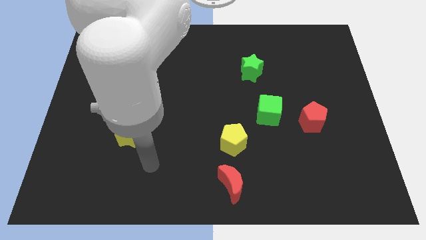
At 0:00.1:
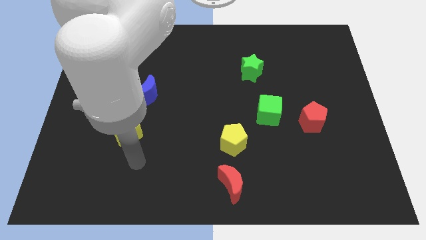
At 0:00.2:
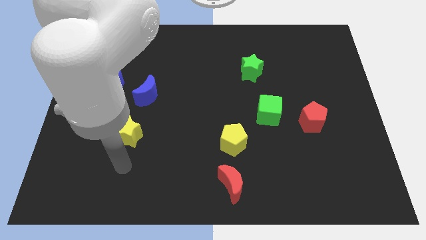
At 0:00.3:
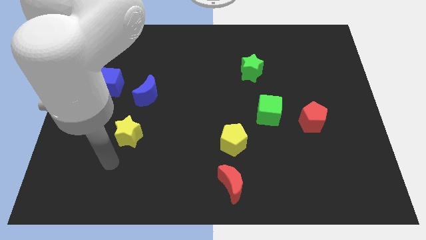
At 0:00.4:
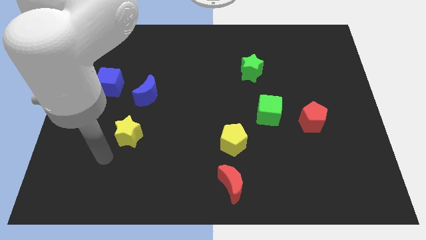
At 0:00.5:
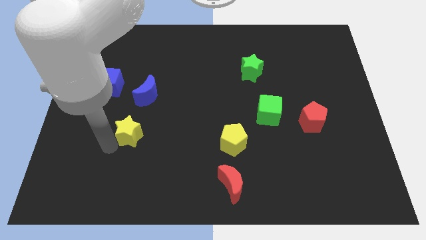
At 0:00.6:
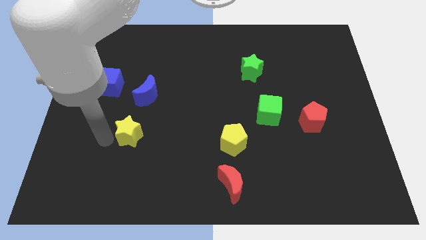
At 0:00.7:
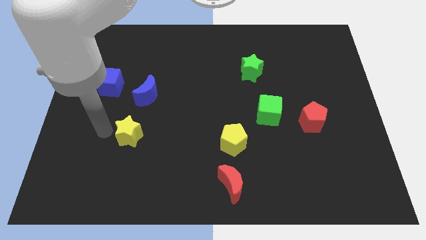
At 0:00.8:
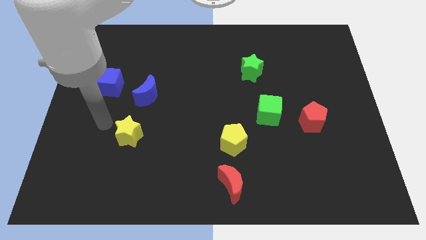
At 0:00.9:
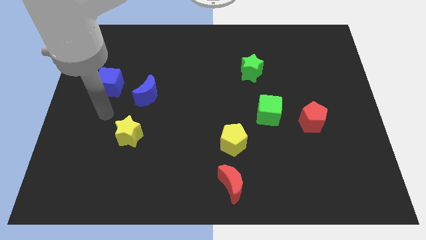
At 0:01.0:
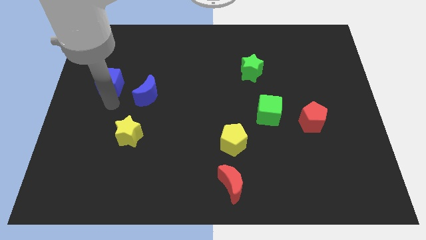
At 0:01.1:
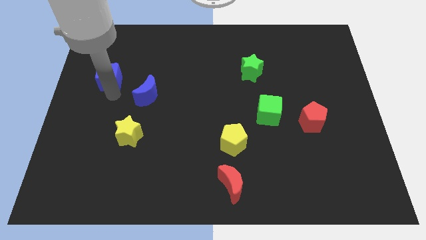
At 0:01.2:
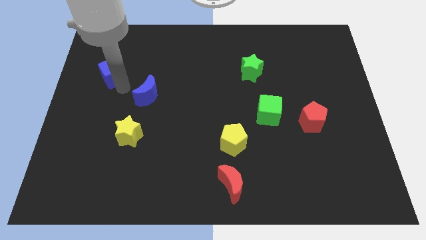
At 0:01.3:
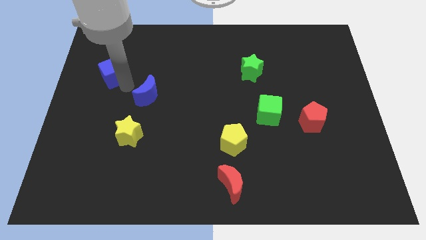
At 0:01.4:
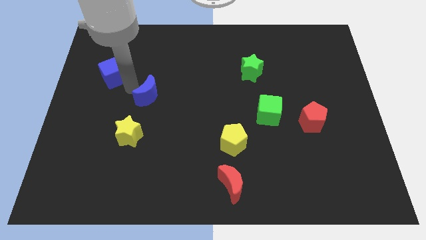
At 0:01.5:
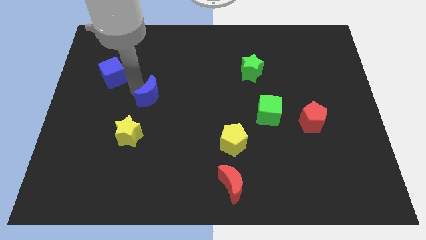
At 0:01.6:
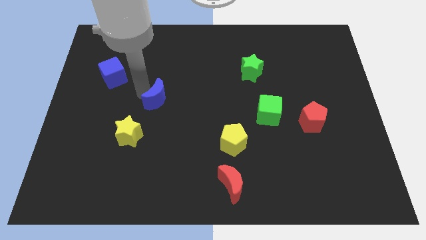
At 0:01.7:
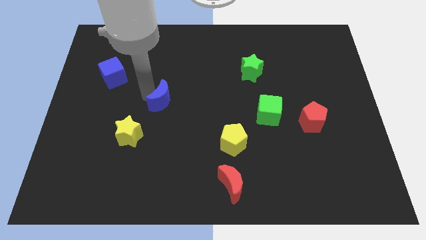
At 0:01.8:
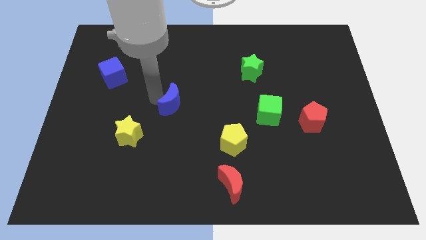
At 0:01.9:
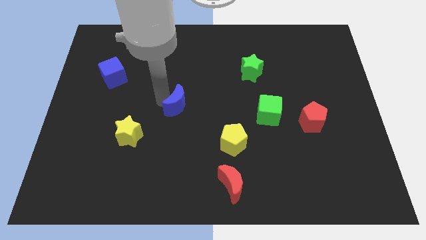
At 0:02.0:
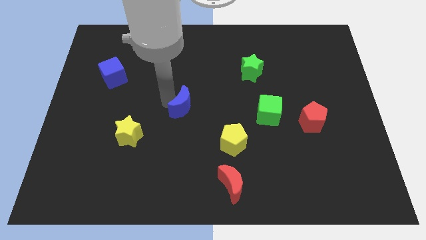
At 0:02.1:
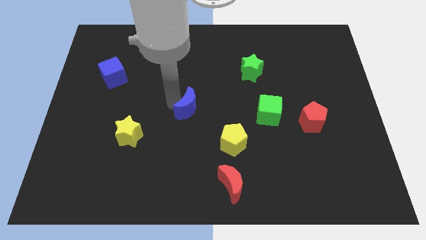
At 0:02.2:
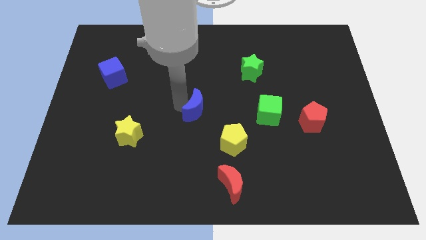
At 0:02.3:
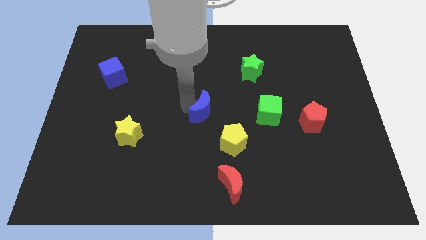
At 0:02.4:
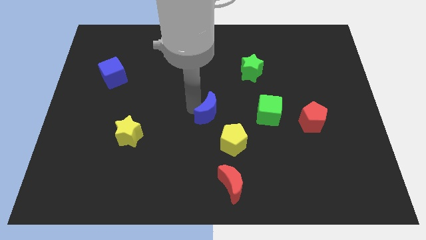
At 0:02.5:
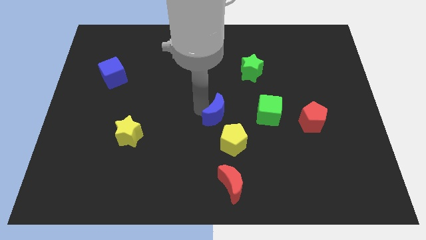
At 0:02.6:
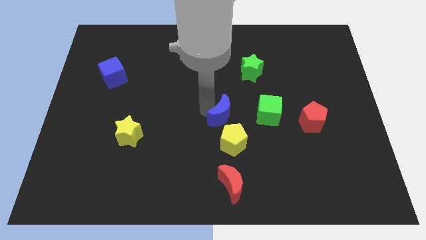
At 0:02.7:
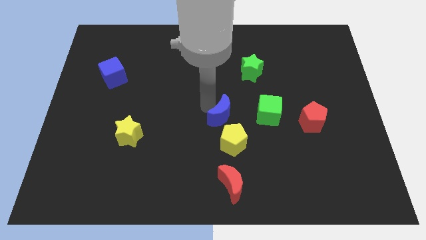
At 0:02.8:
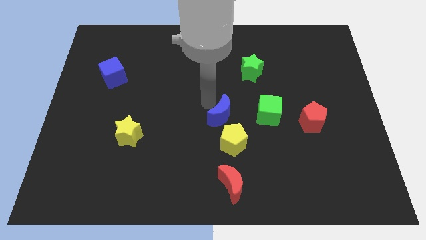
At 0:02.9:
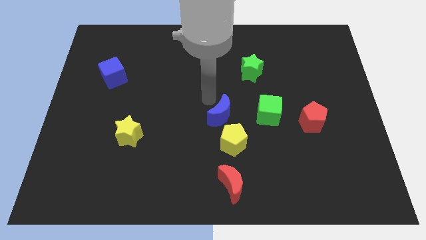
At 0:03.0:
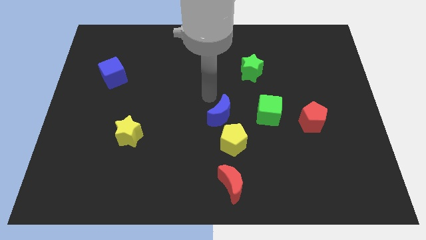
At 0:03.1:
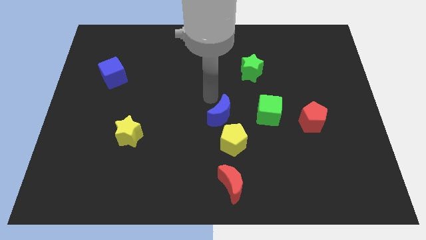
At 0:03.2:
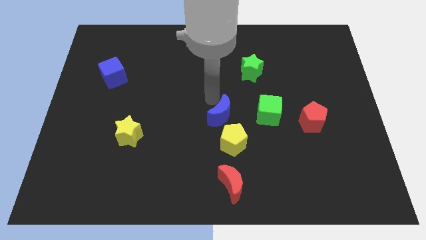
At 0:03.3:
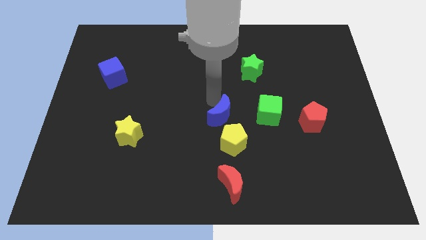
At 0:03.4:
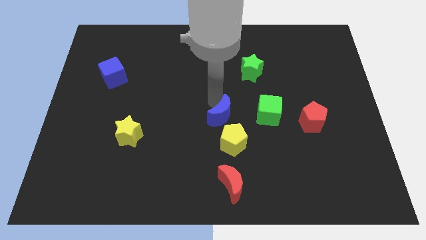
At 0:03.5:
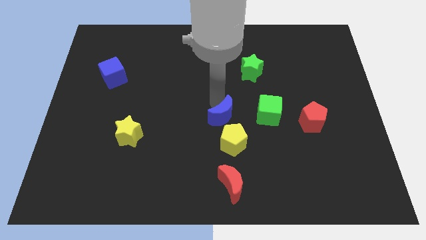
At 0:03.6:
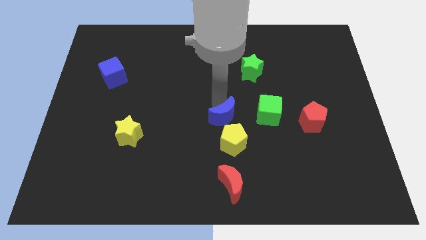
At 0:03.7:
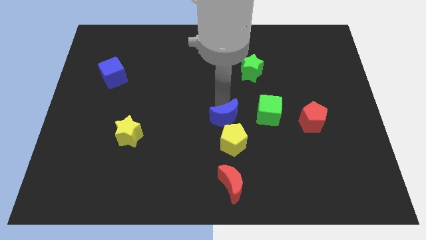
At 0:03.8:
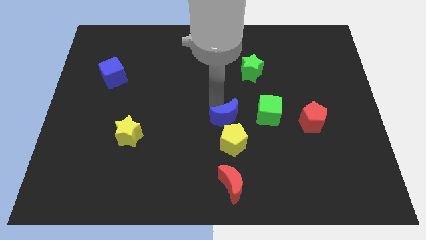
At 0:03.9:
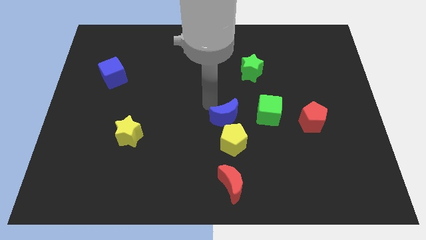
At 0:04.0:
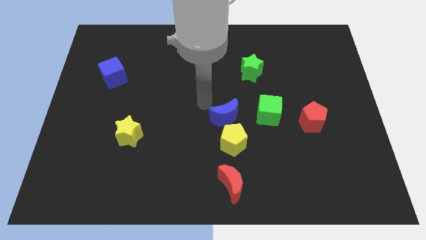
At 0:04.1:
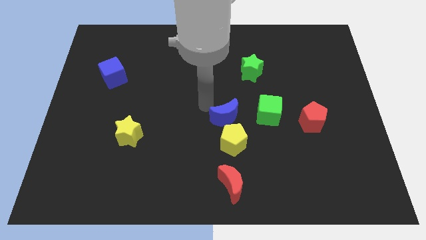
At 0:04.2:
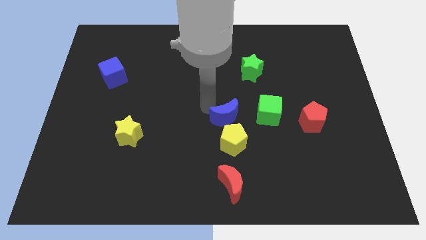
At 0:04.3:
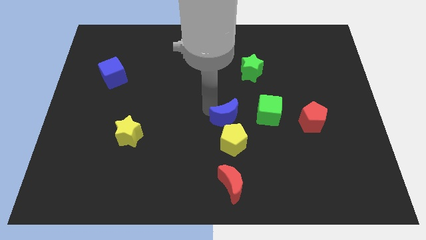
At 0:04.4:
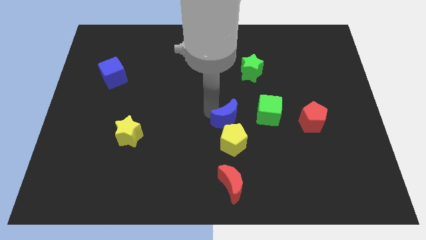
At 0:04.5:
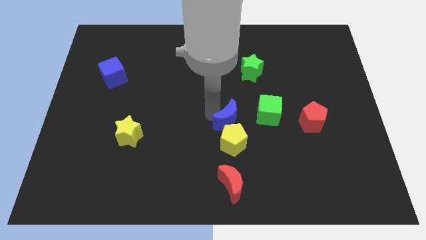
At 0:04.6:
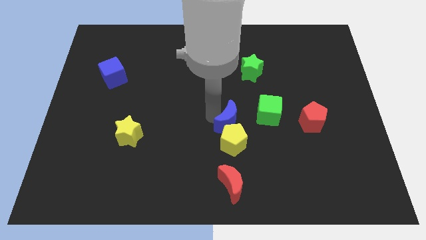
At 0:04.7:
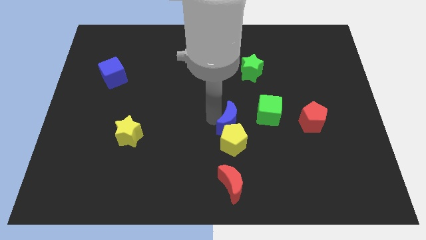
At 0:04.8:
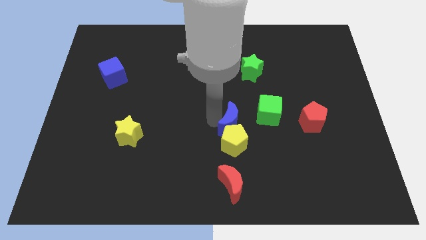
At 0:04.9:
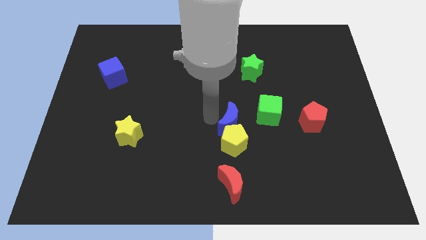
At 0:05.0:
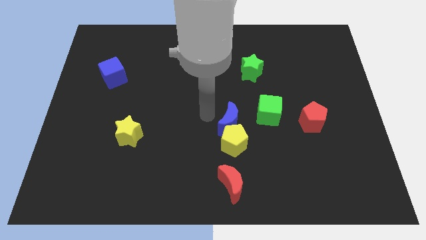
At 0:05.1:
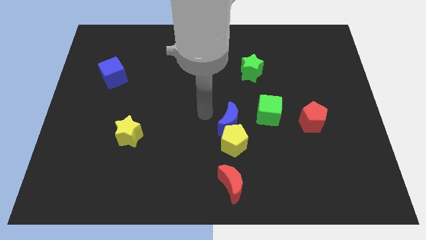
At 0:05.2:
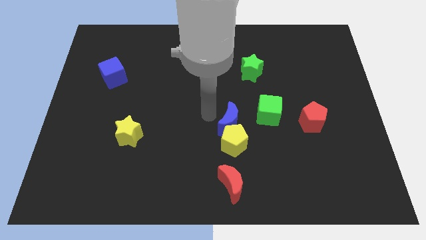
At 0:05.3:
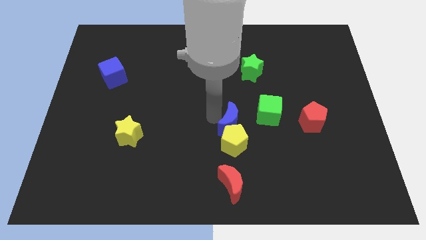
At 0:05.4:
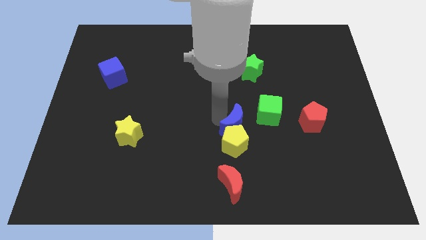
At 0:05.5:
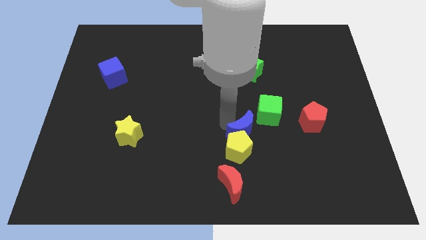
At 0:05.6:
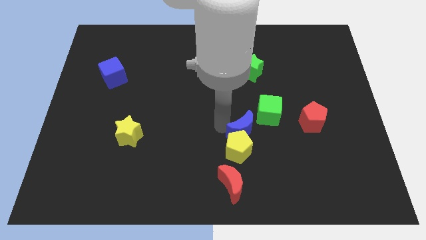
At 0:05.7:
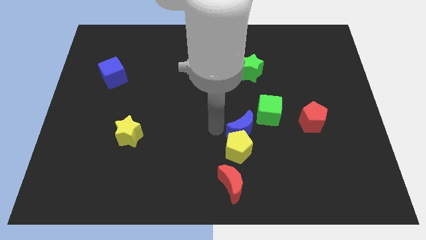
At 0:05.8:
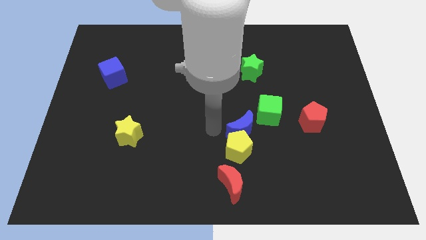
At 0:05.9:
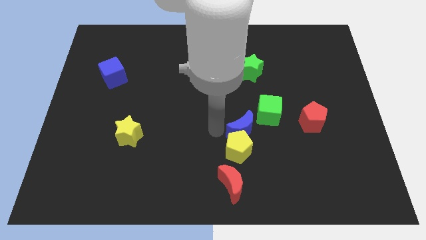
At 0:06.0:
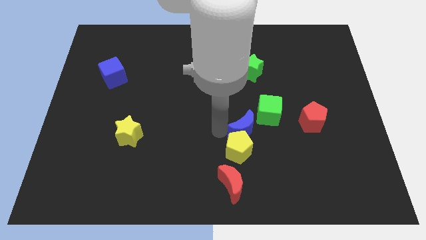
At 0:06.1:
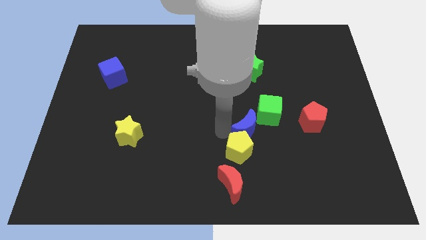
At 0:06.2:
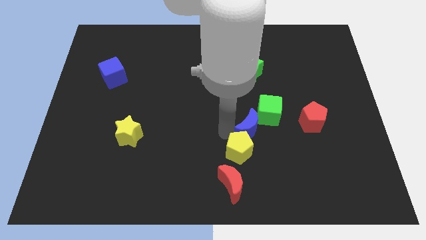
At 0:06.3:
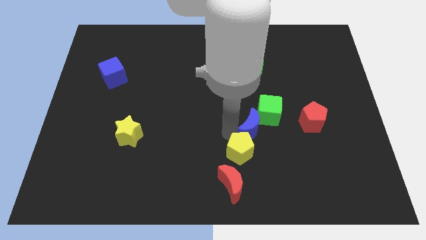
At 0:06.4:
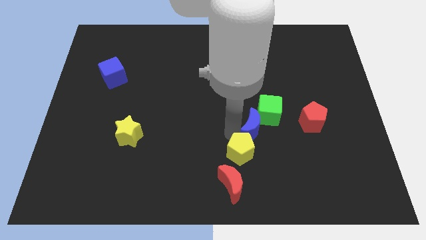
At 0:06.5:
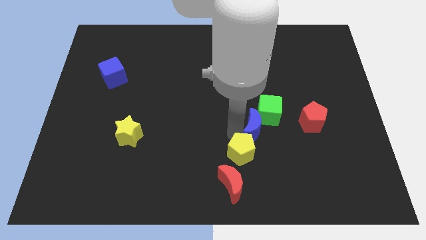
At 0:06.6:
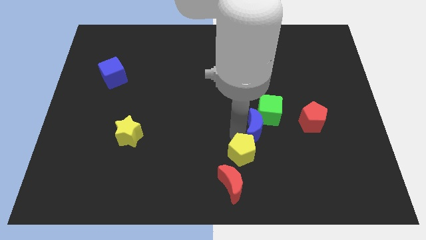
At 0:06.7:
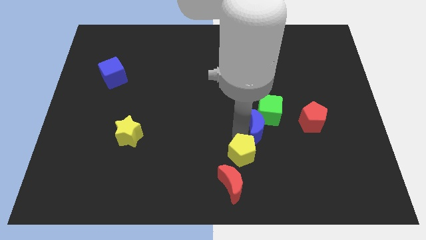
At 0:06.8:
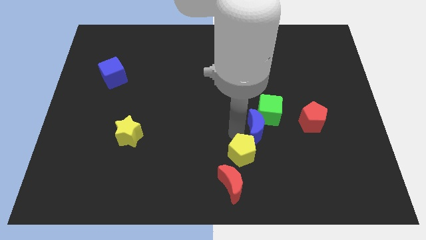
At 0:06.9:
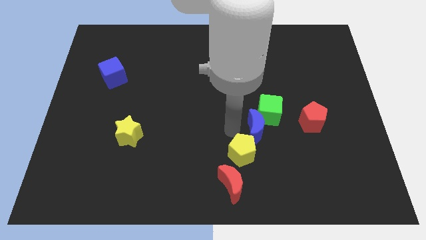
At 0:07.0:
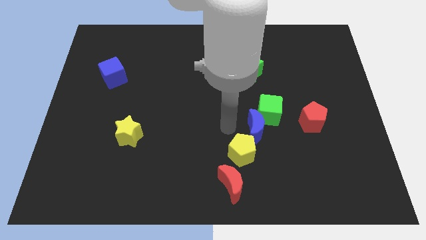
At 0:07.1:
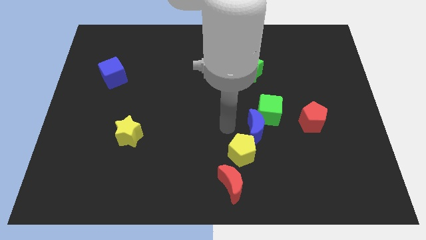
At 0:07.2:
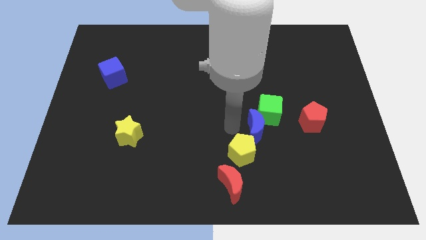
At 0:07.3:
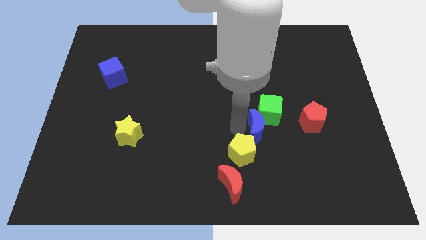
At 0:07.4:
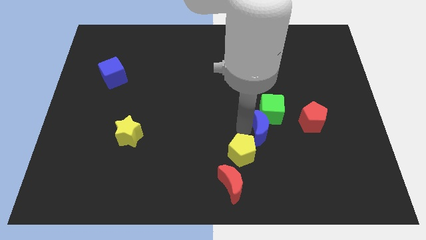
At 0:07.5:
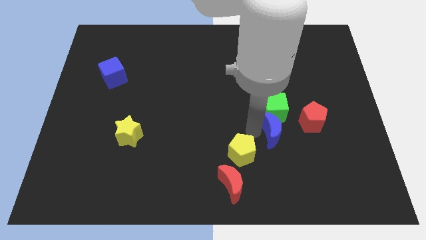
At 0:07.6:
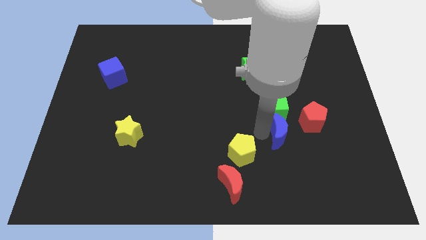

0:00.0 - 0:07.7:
move the blue moon to the bottom right of the green cube
